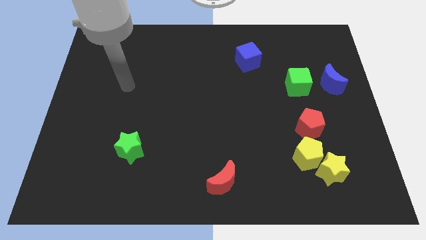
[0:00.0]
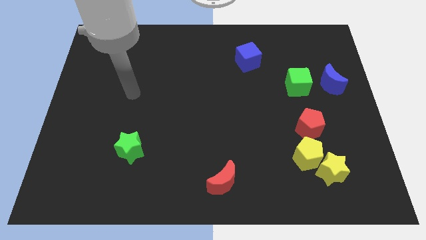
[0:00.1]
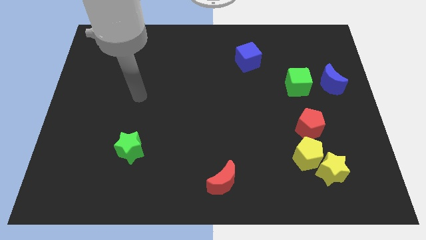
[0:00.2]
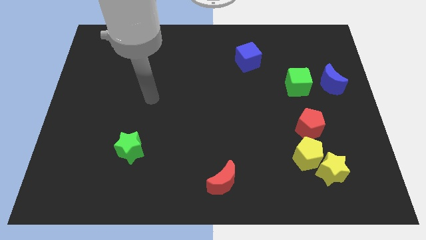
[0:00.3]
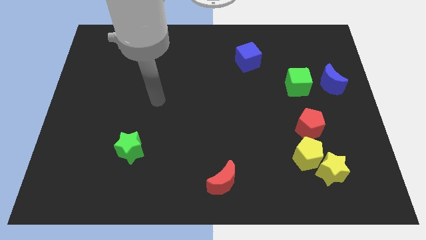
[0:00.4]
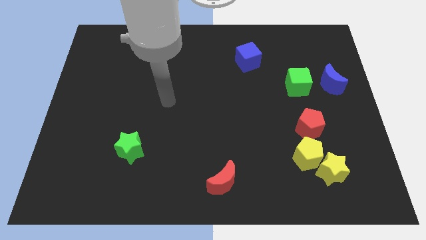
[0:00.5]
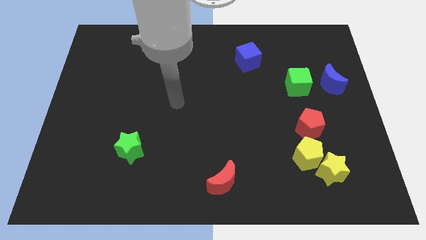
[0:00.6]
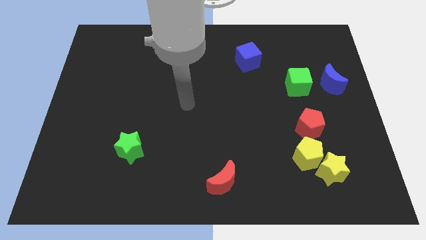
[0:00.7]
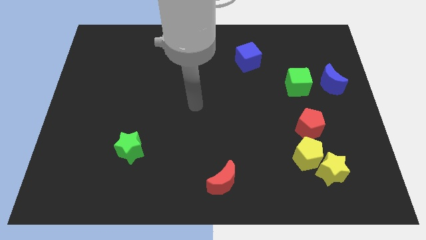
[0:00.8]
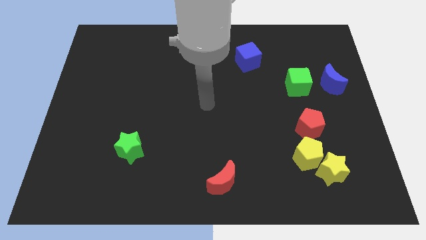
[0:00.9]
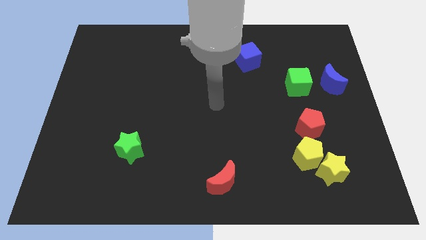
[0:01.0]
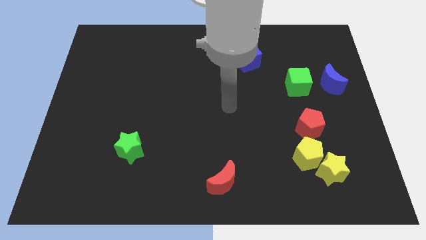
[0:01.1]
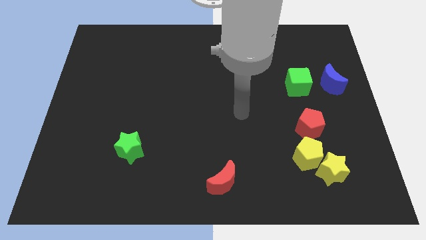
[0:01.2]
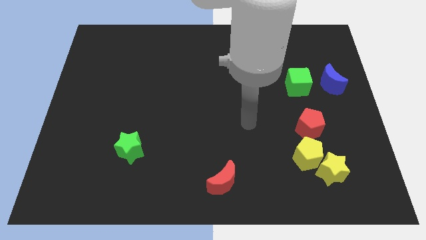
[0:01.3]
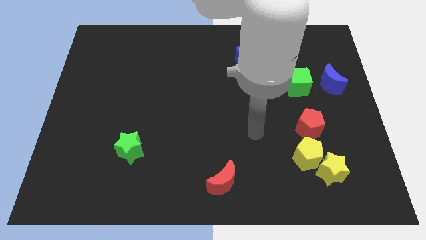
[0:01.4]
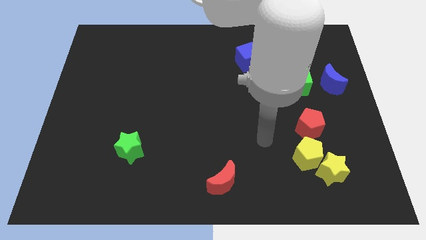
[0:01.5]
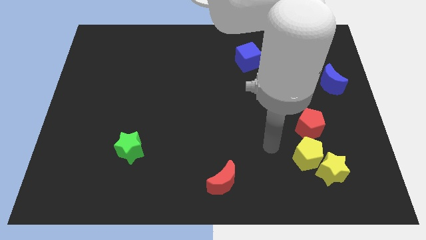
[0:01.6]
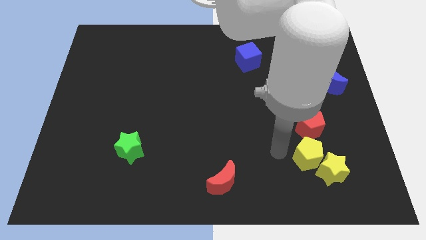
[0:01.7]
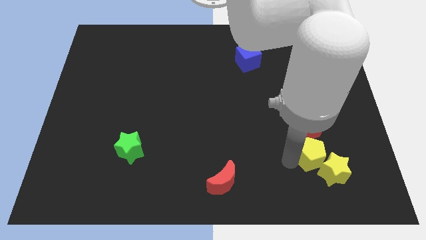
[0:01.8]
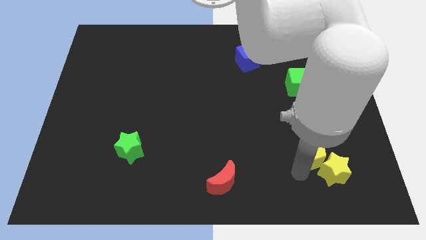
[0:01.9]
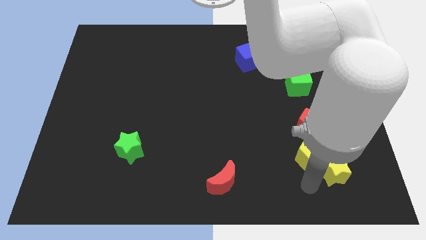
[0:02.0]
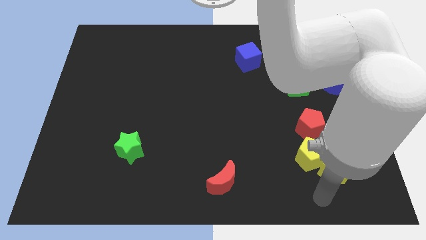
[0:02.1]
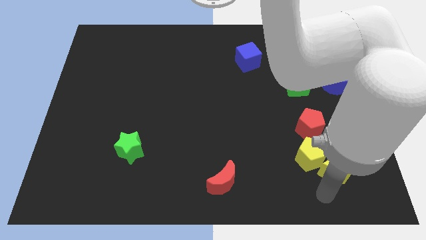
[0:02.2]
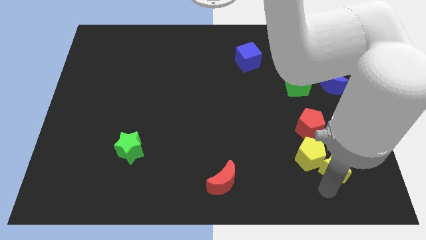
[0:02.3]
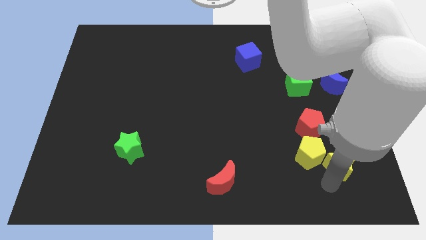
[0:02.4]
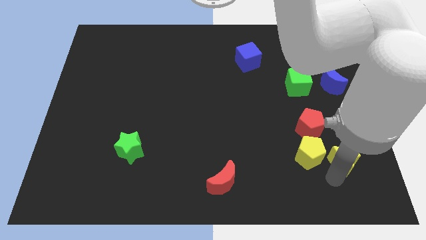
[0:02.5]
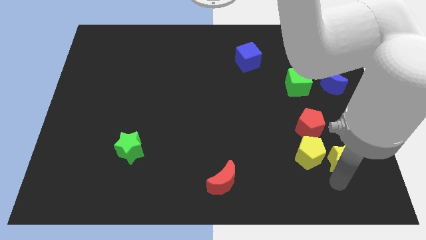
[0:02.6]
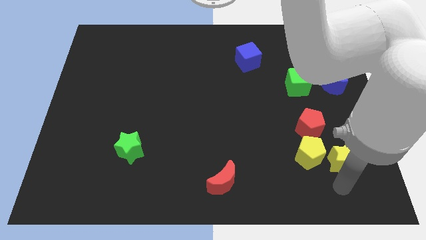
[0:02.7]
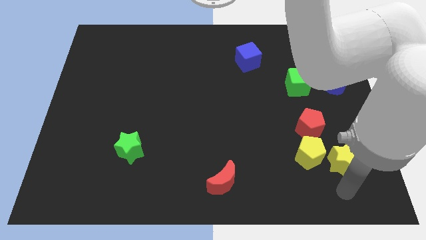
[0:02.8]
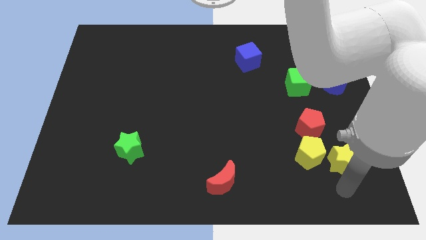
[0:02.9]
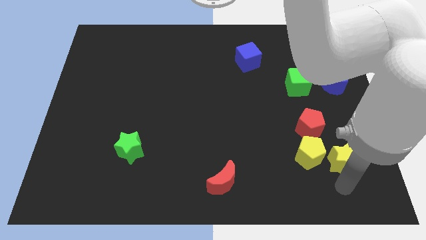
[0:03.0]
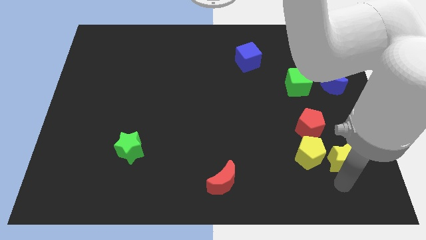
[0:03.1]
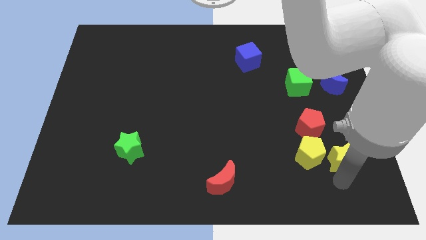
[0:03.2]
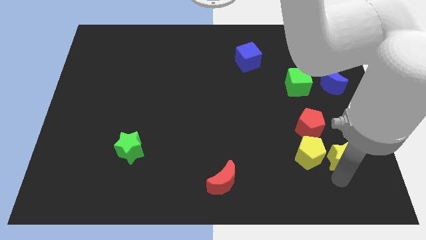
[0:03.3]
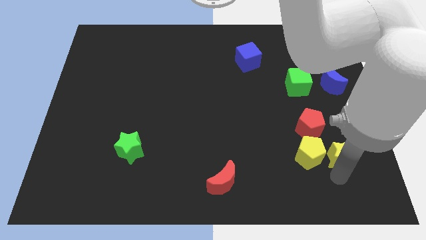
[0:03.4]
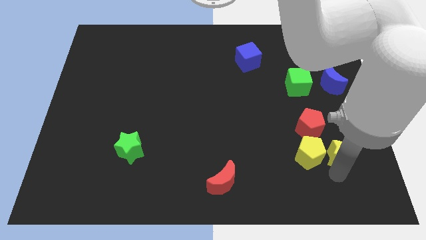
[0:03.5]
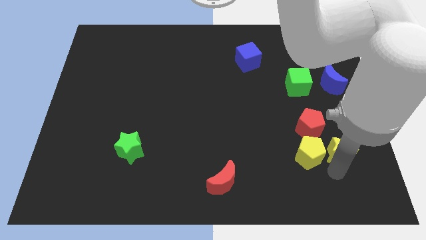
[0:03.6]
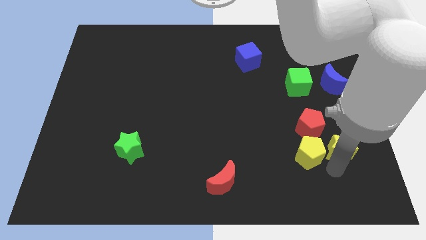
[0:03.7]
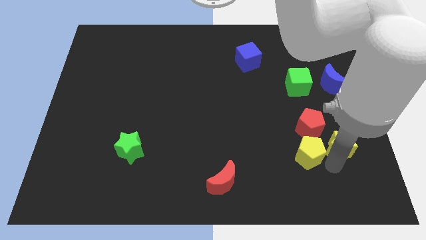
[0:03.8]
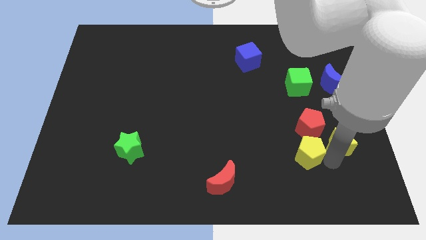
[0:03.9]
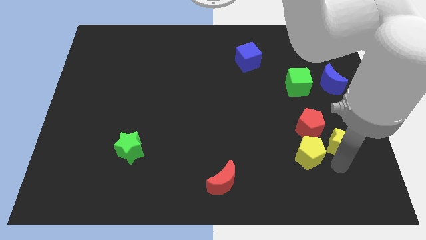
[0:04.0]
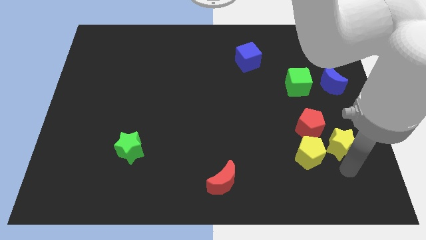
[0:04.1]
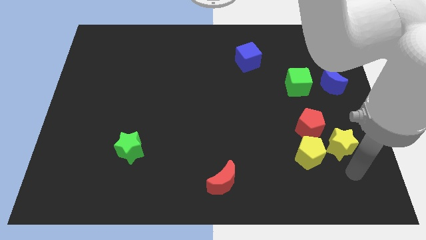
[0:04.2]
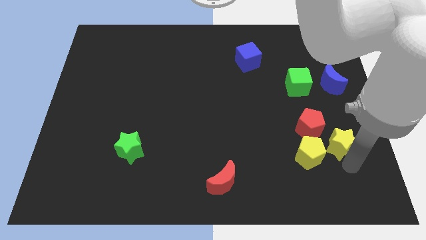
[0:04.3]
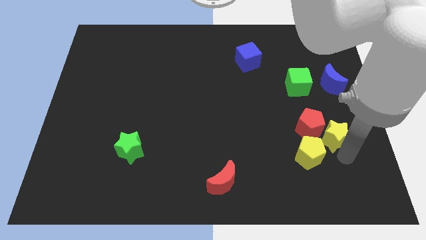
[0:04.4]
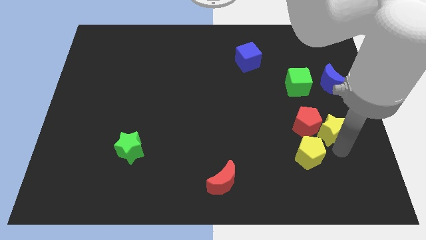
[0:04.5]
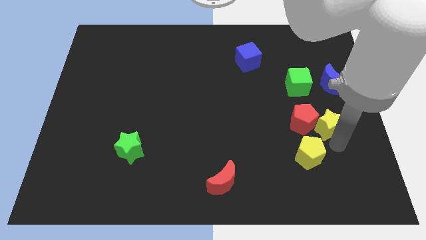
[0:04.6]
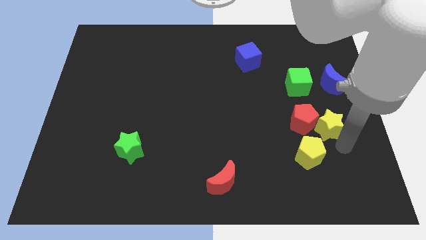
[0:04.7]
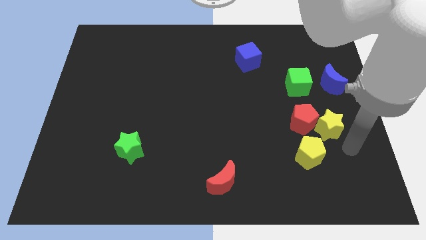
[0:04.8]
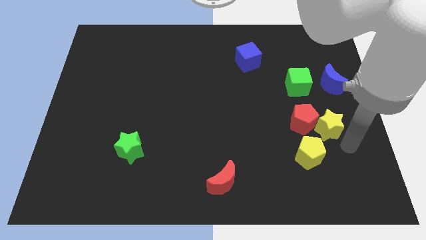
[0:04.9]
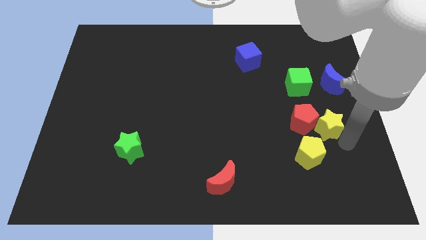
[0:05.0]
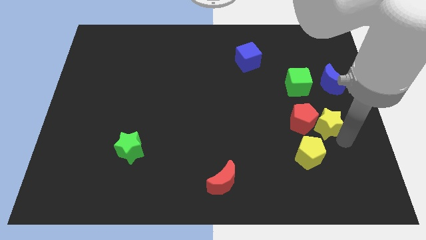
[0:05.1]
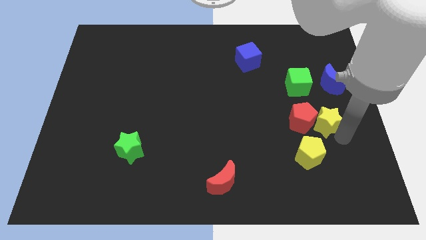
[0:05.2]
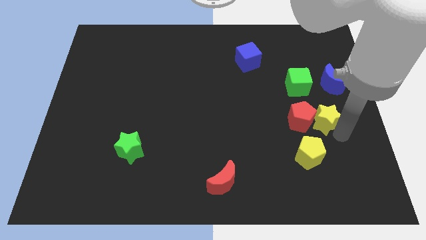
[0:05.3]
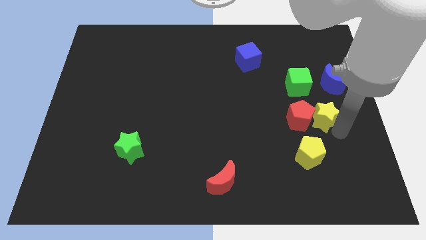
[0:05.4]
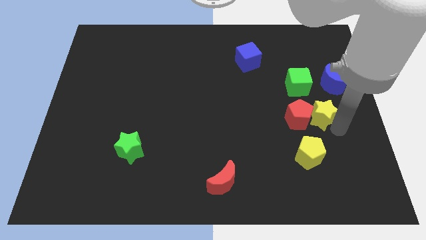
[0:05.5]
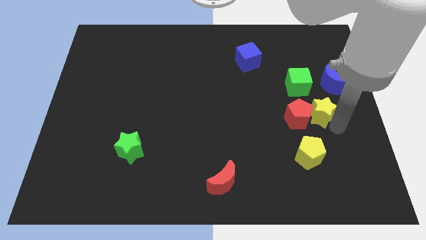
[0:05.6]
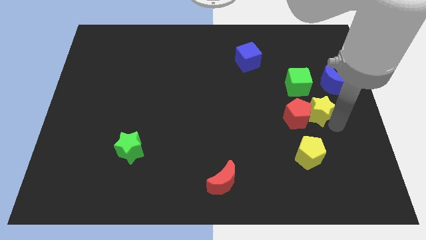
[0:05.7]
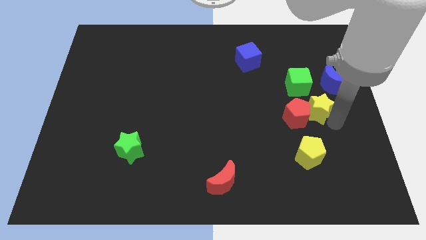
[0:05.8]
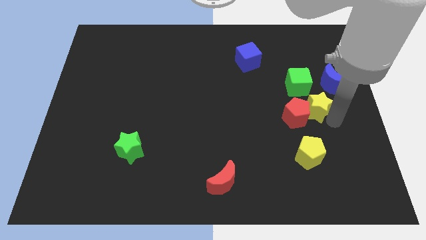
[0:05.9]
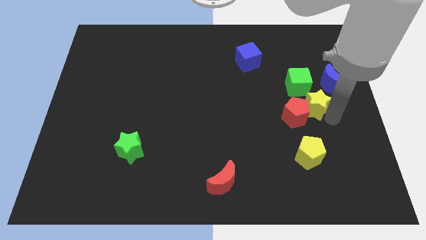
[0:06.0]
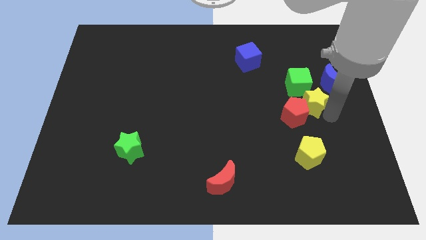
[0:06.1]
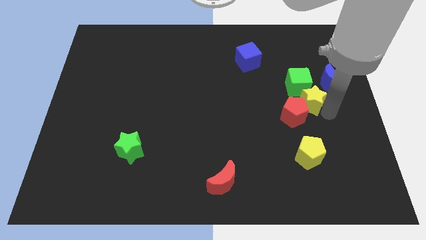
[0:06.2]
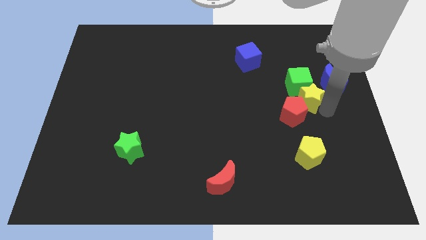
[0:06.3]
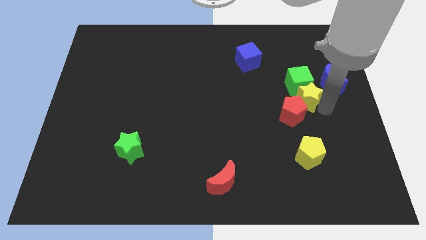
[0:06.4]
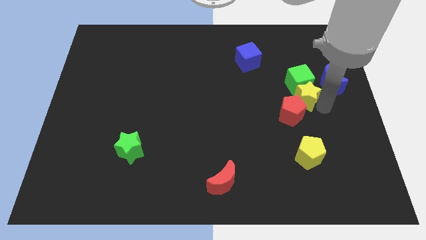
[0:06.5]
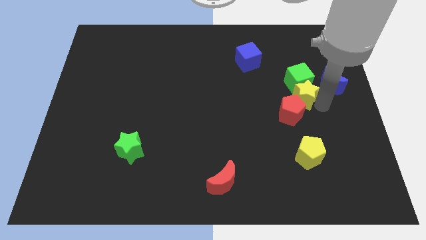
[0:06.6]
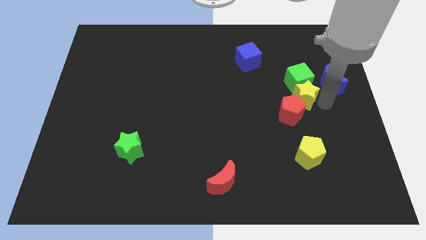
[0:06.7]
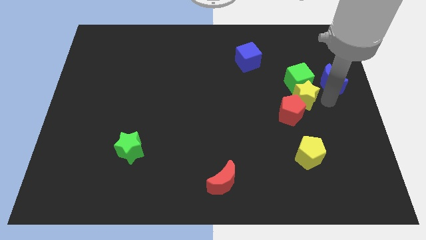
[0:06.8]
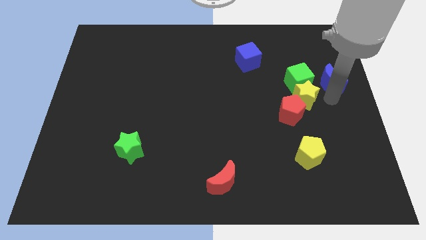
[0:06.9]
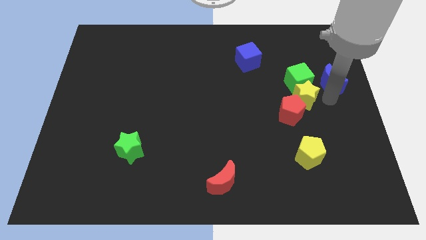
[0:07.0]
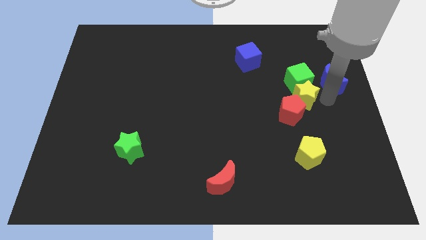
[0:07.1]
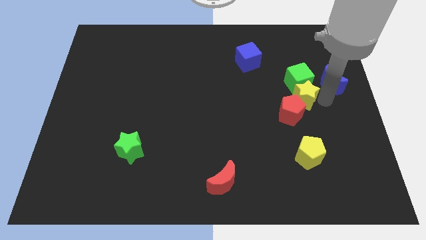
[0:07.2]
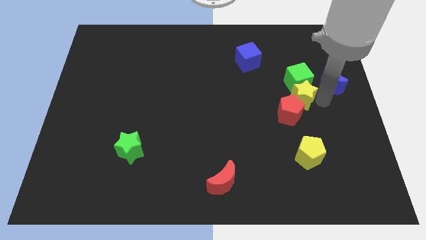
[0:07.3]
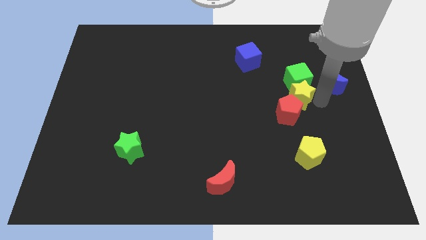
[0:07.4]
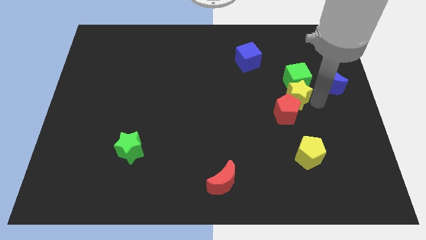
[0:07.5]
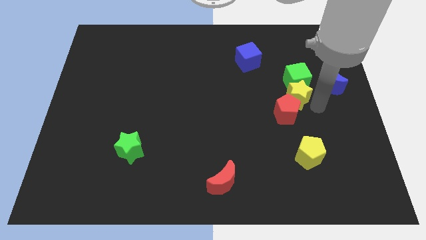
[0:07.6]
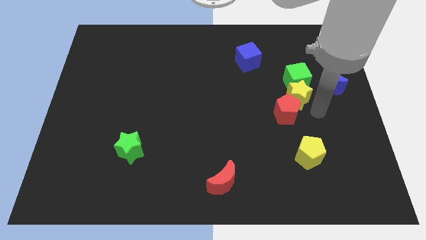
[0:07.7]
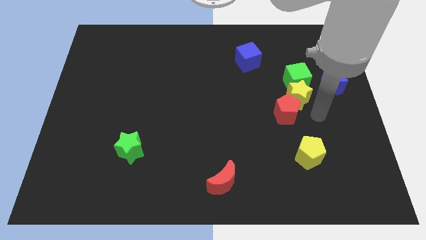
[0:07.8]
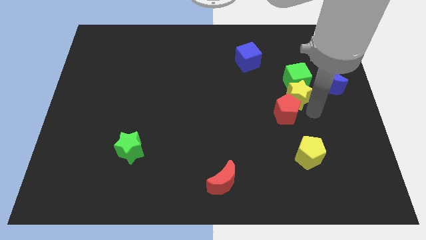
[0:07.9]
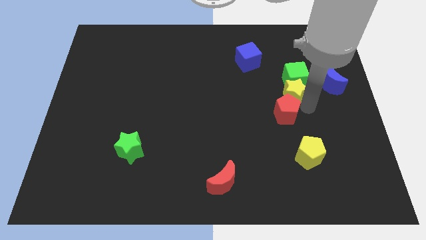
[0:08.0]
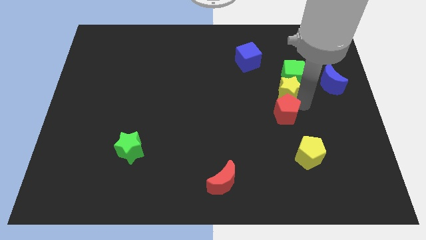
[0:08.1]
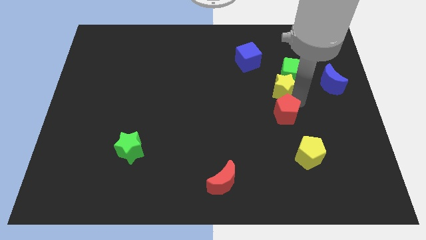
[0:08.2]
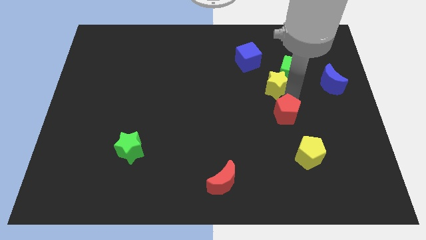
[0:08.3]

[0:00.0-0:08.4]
slide the yellow star to the bottom right of the blue cube
